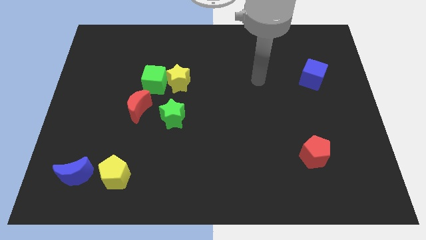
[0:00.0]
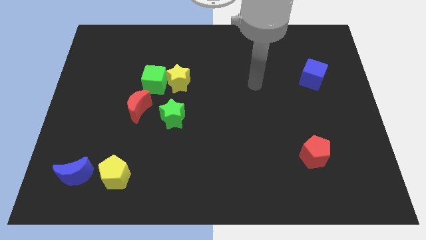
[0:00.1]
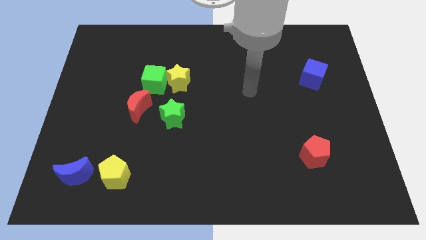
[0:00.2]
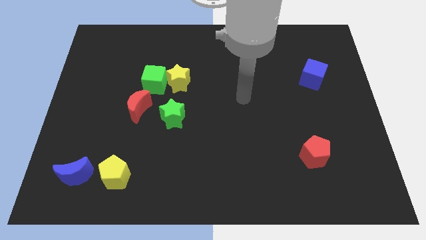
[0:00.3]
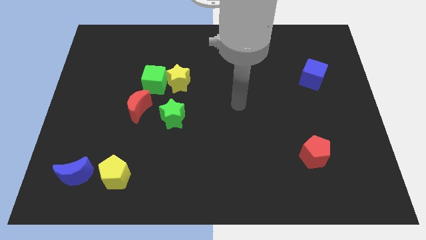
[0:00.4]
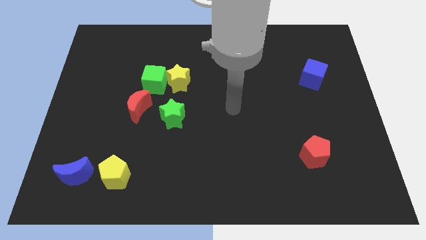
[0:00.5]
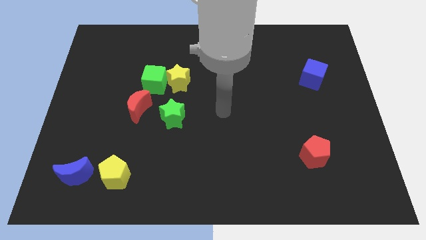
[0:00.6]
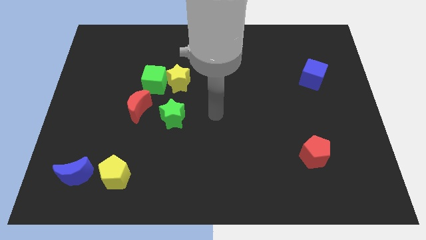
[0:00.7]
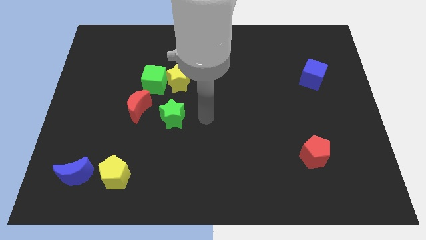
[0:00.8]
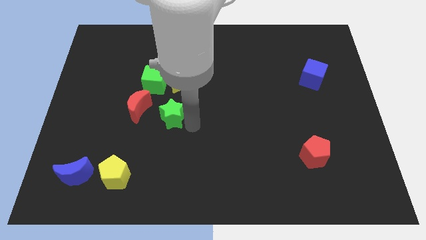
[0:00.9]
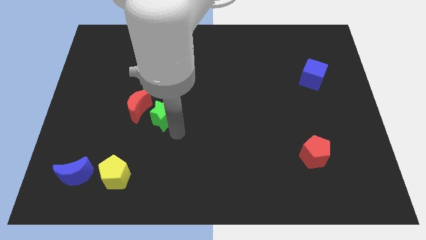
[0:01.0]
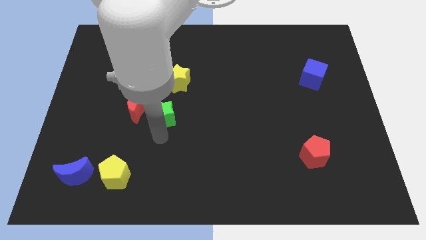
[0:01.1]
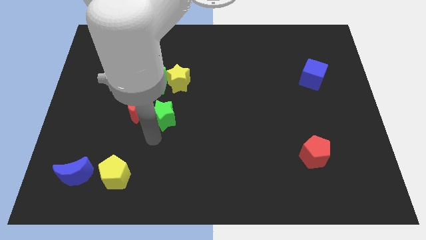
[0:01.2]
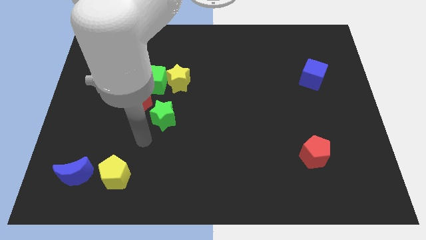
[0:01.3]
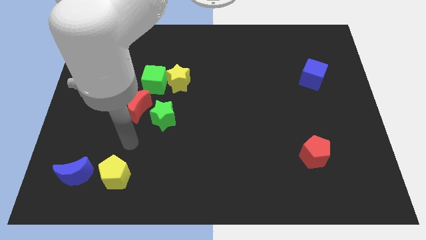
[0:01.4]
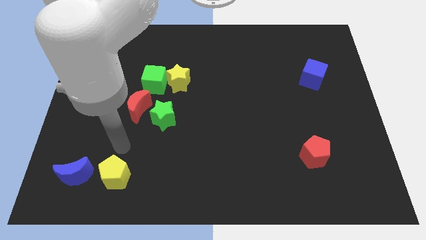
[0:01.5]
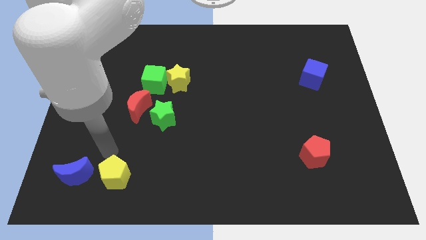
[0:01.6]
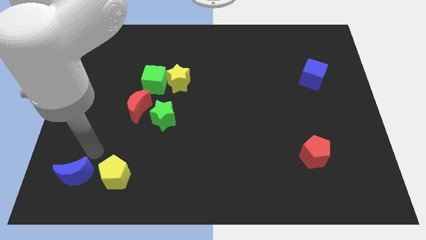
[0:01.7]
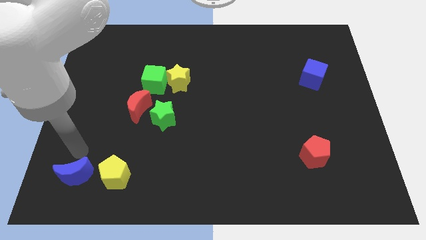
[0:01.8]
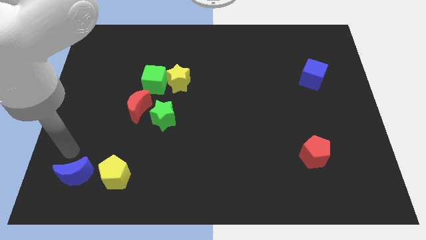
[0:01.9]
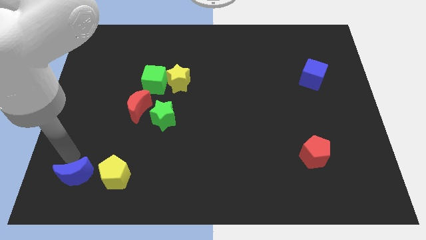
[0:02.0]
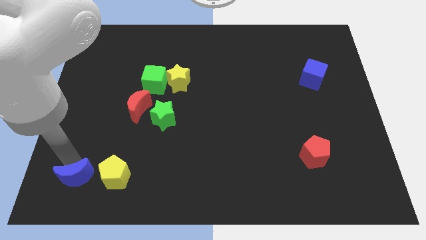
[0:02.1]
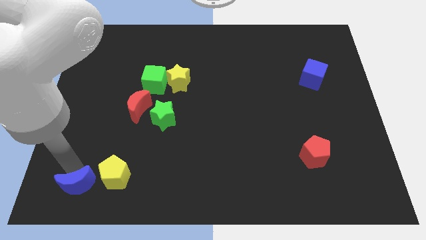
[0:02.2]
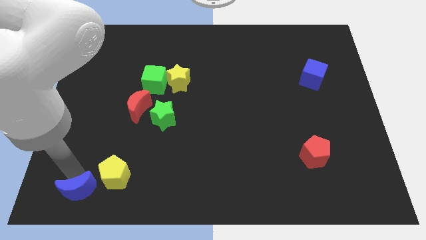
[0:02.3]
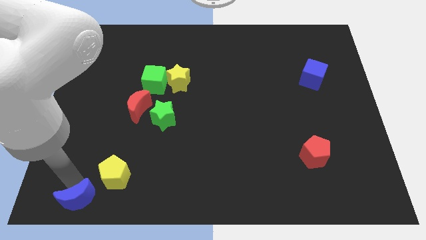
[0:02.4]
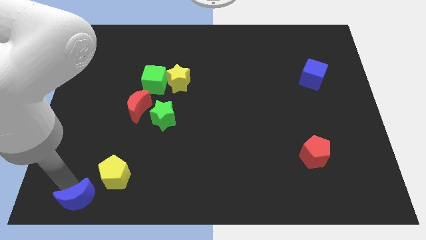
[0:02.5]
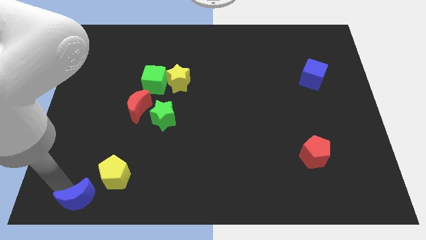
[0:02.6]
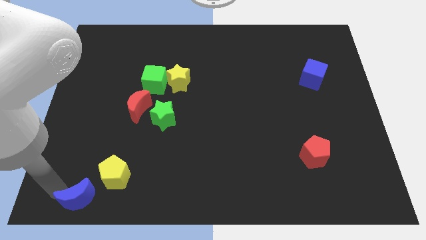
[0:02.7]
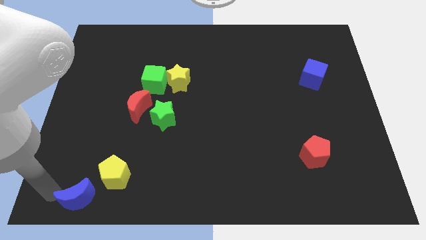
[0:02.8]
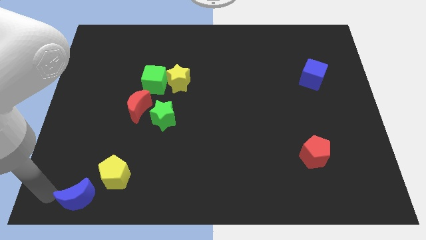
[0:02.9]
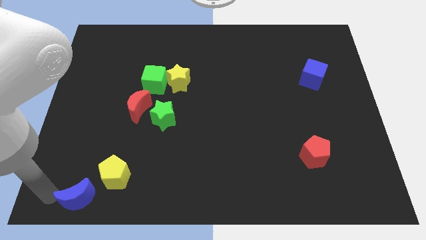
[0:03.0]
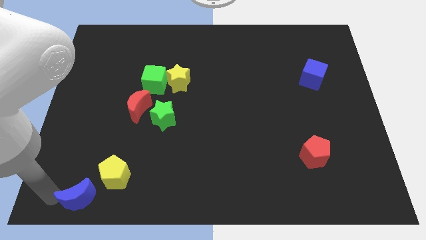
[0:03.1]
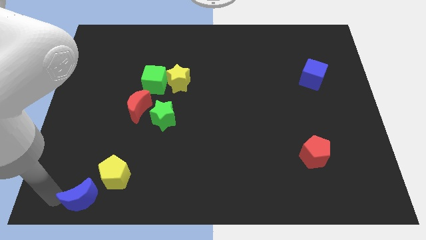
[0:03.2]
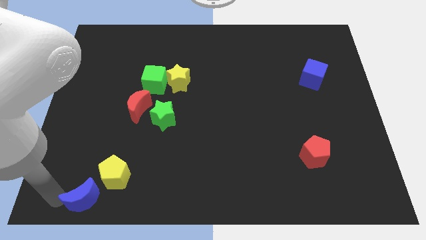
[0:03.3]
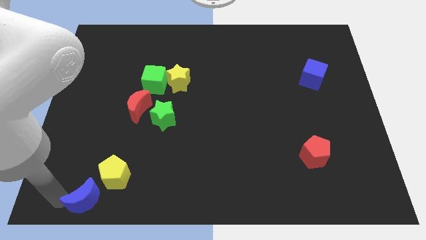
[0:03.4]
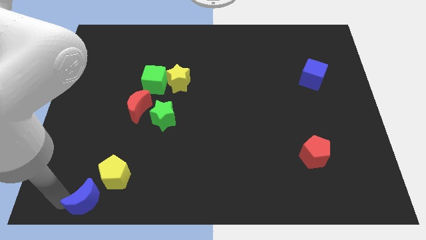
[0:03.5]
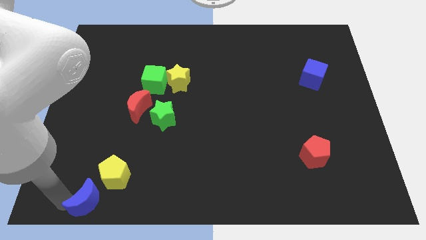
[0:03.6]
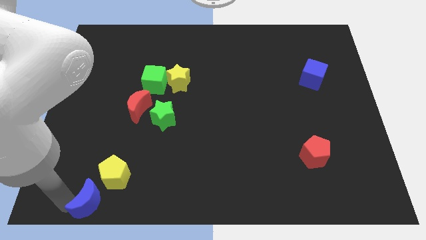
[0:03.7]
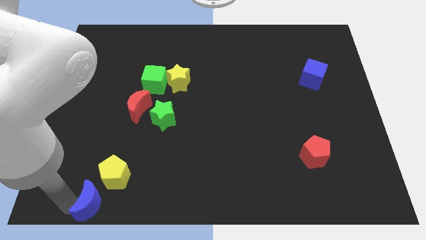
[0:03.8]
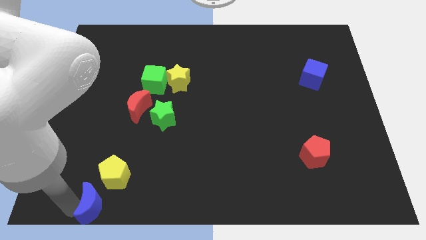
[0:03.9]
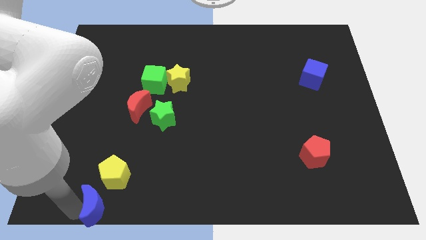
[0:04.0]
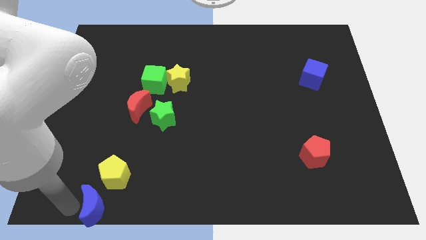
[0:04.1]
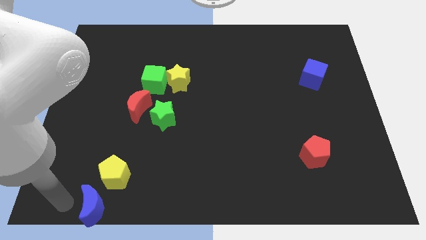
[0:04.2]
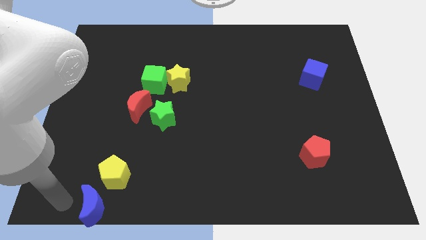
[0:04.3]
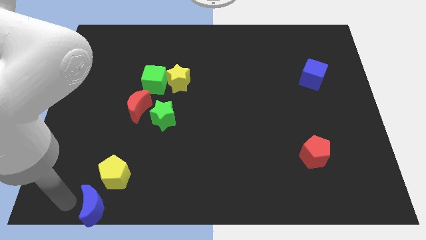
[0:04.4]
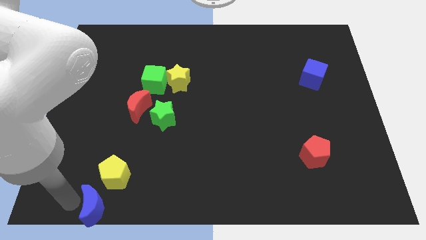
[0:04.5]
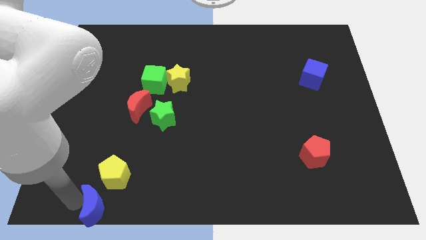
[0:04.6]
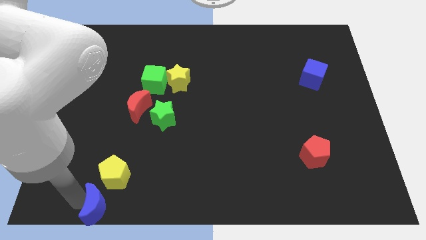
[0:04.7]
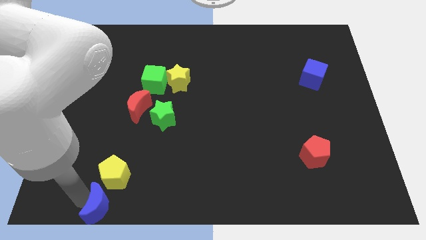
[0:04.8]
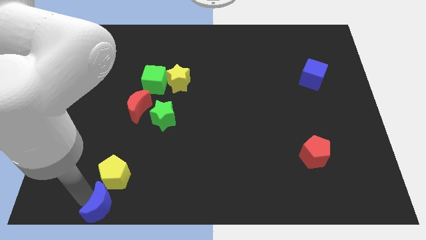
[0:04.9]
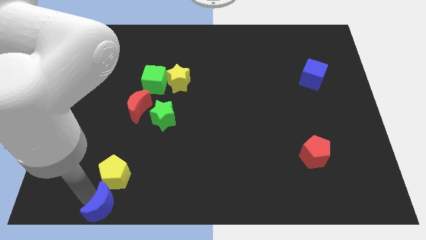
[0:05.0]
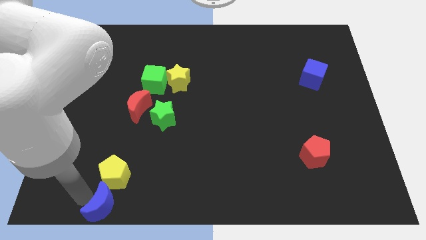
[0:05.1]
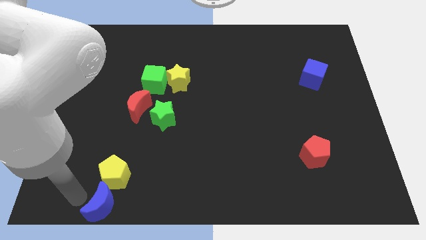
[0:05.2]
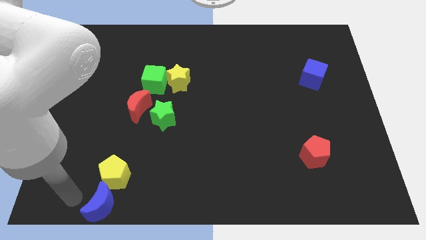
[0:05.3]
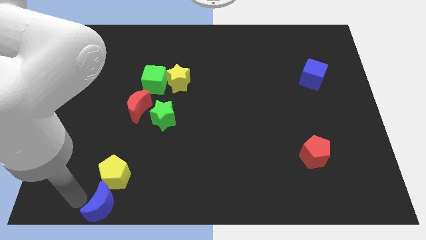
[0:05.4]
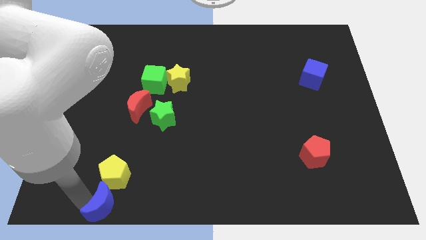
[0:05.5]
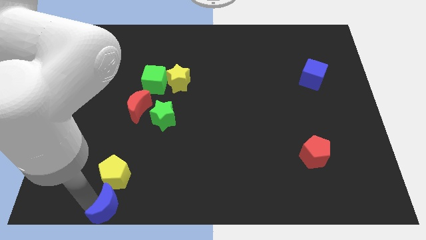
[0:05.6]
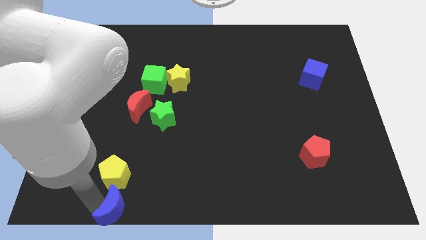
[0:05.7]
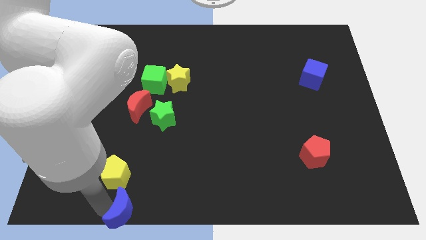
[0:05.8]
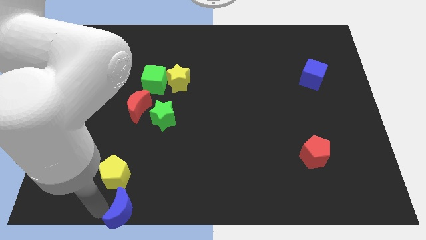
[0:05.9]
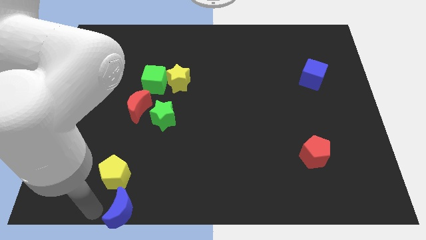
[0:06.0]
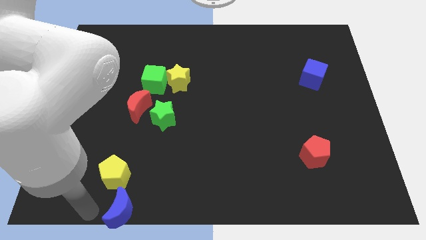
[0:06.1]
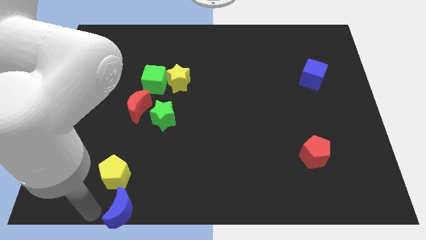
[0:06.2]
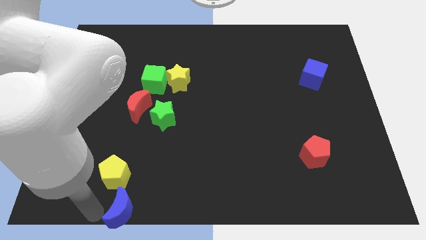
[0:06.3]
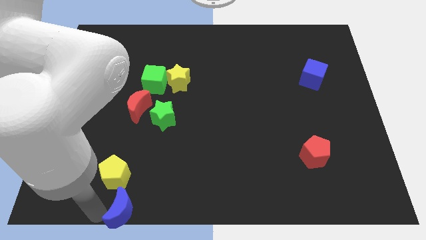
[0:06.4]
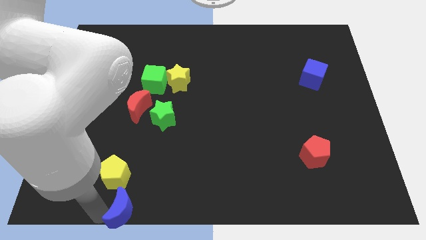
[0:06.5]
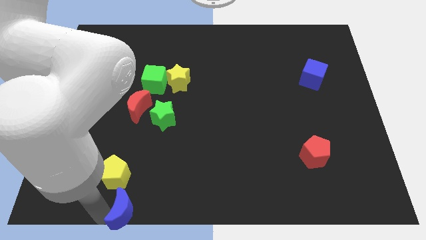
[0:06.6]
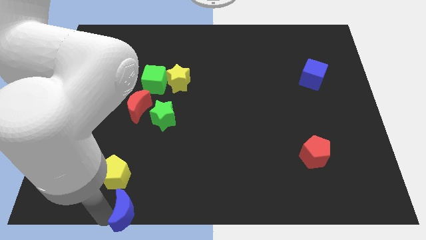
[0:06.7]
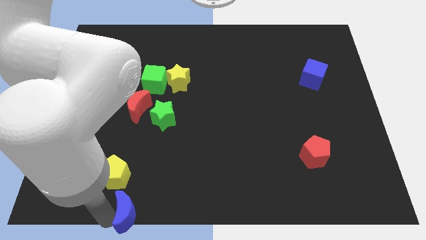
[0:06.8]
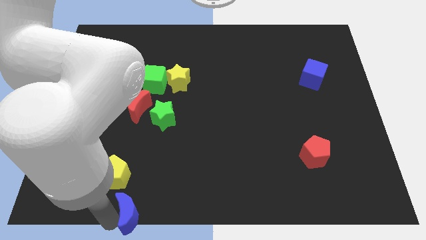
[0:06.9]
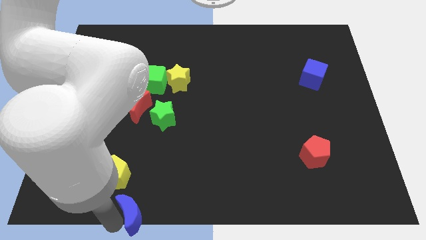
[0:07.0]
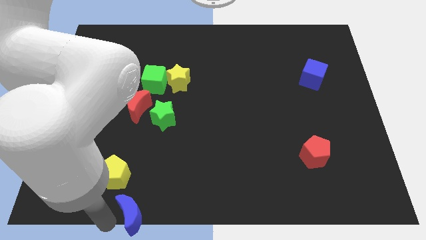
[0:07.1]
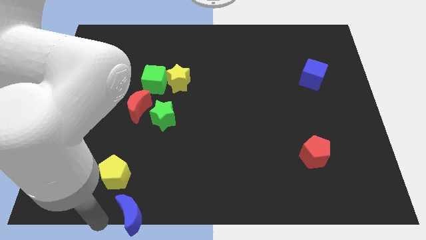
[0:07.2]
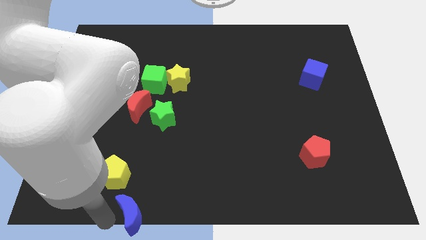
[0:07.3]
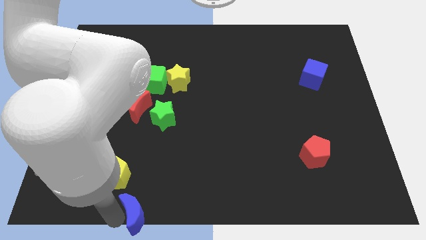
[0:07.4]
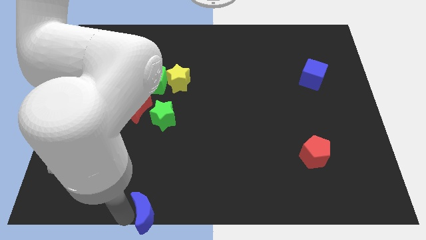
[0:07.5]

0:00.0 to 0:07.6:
push the blue moon to the bottom side
